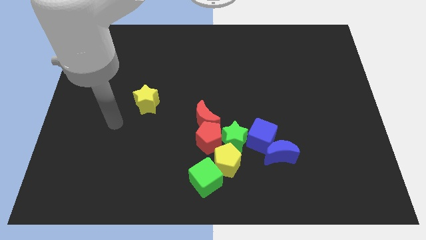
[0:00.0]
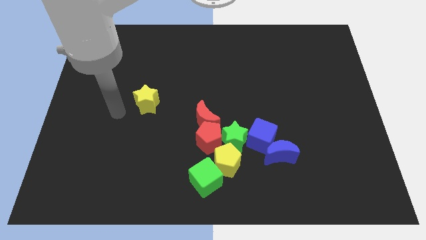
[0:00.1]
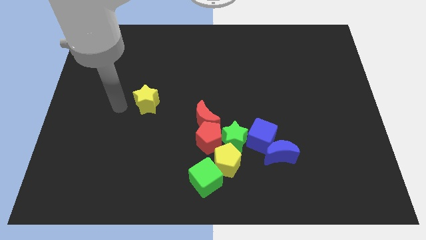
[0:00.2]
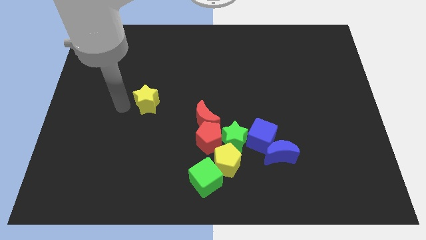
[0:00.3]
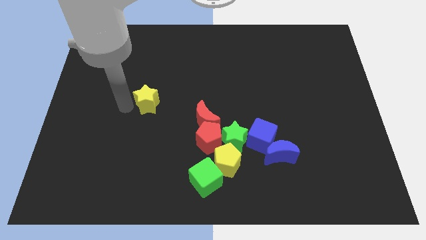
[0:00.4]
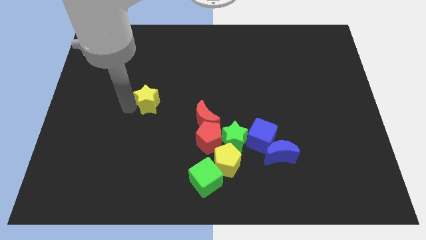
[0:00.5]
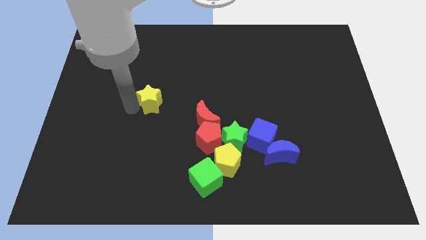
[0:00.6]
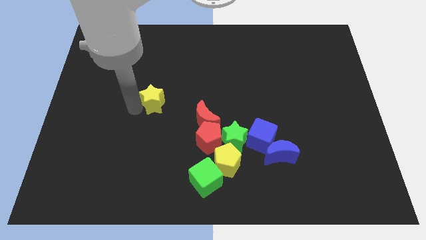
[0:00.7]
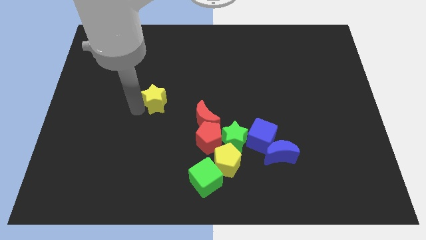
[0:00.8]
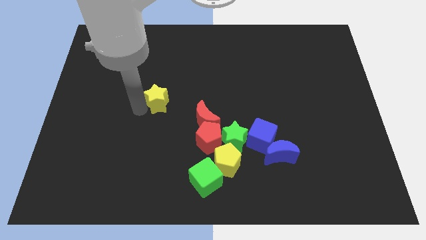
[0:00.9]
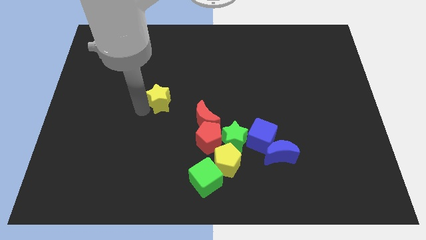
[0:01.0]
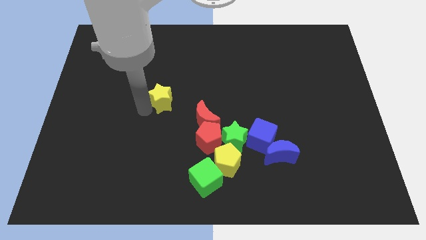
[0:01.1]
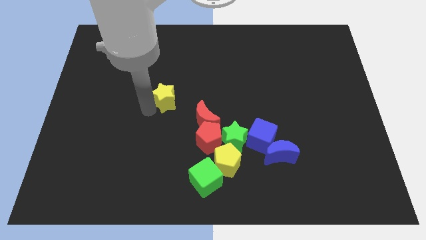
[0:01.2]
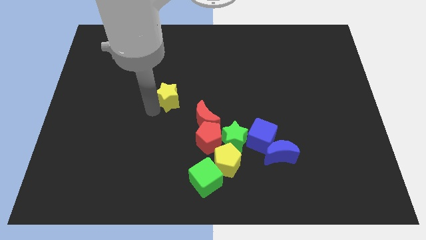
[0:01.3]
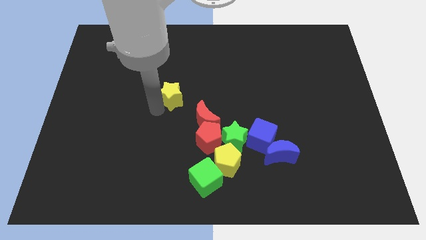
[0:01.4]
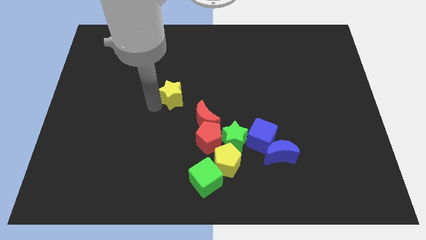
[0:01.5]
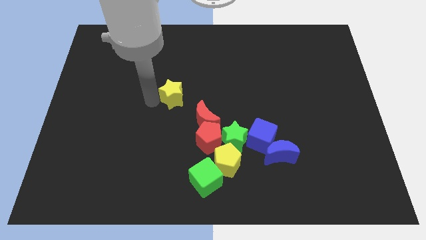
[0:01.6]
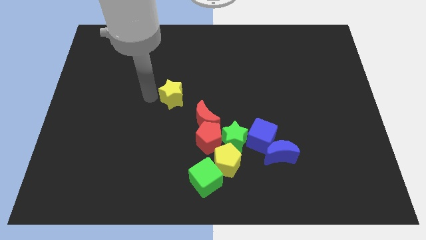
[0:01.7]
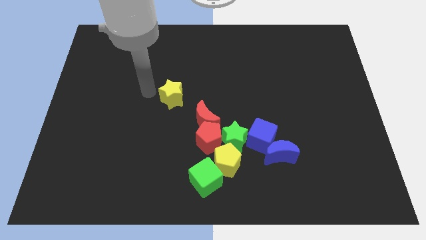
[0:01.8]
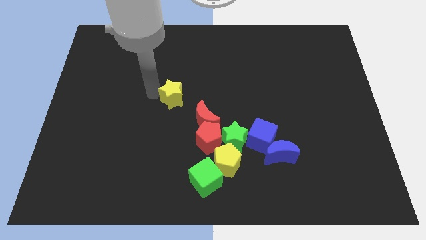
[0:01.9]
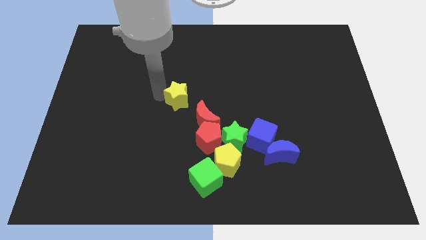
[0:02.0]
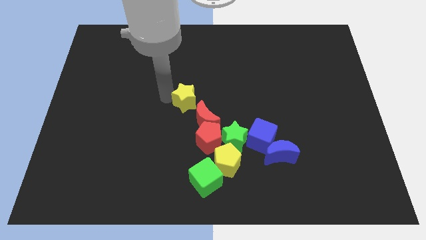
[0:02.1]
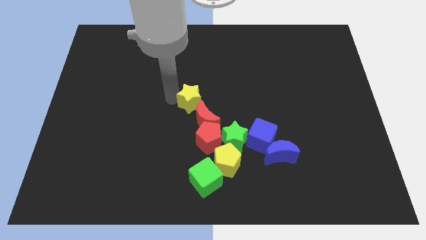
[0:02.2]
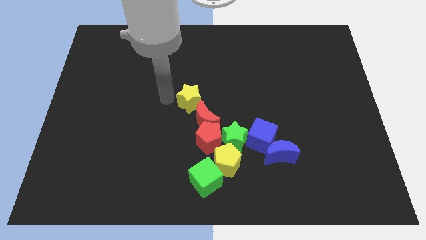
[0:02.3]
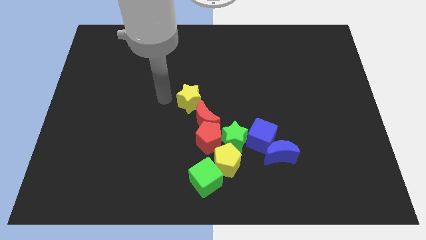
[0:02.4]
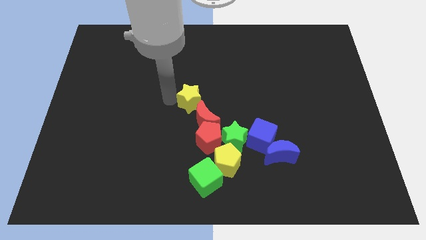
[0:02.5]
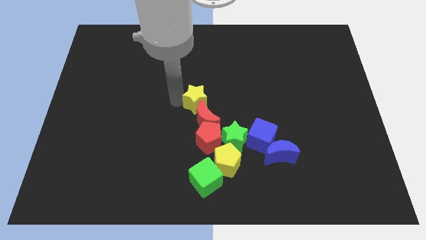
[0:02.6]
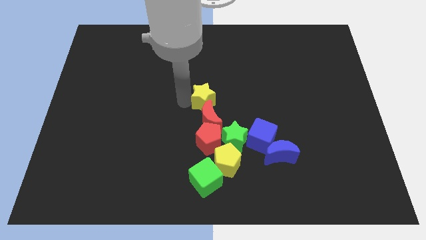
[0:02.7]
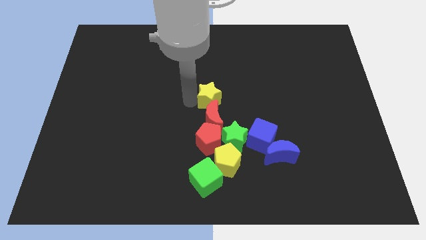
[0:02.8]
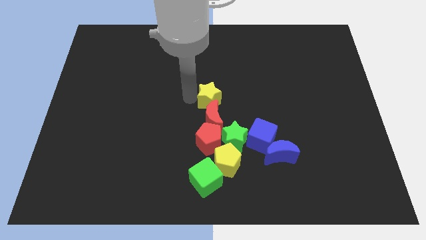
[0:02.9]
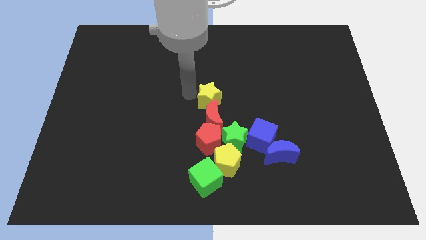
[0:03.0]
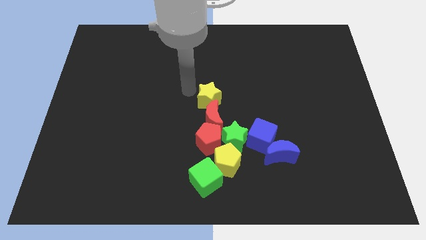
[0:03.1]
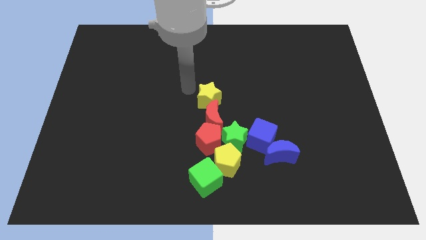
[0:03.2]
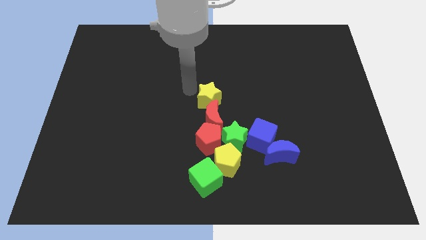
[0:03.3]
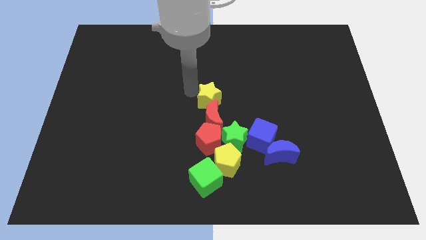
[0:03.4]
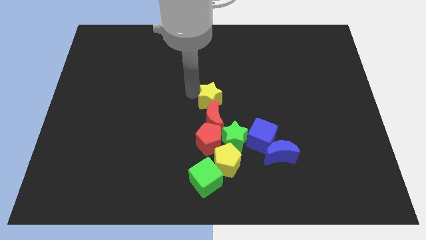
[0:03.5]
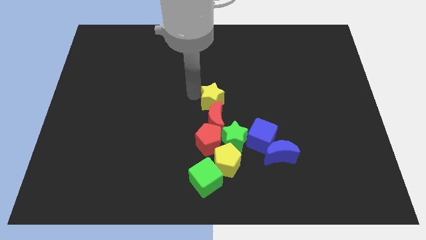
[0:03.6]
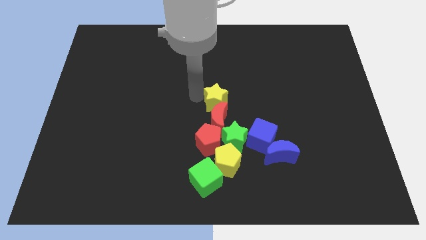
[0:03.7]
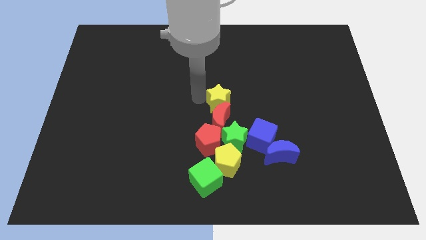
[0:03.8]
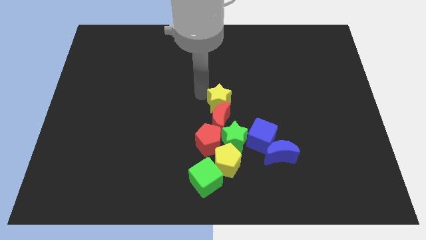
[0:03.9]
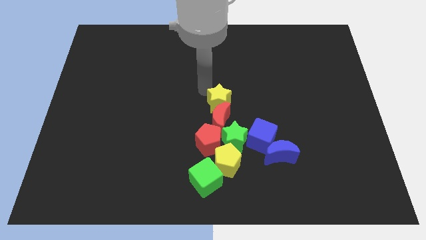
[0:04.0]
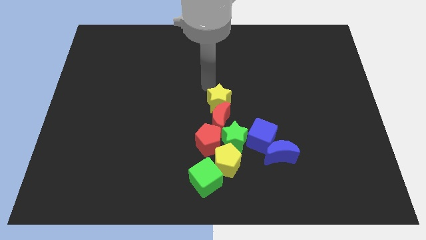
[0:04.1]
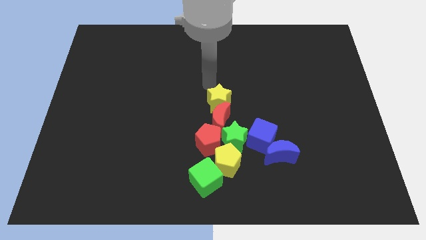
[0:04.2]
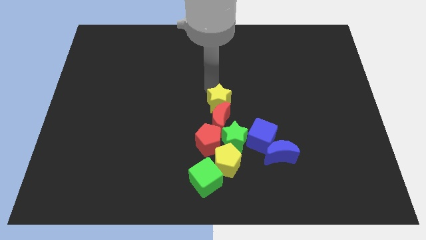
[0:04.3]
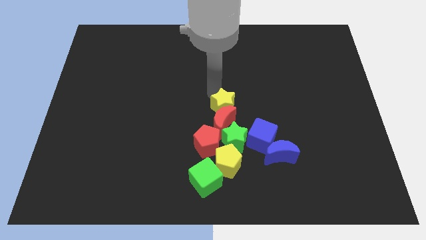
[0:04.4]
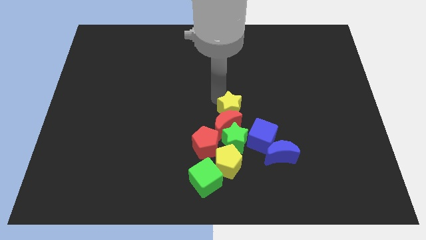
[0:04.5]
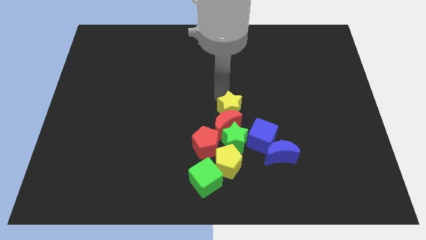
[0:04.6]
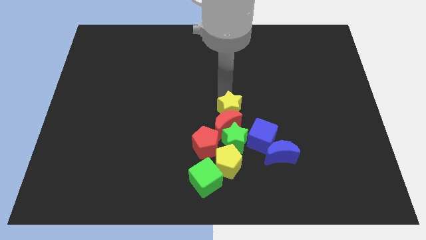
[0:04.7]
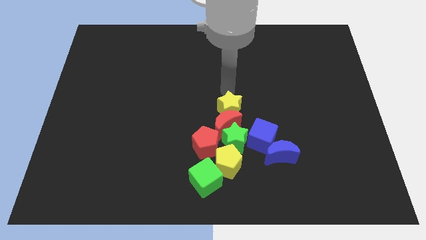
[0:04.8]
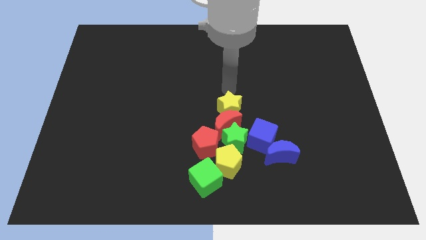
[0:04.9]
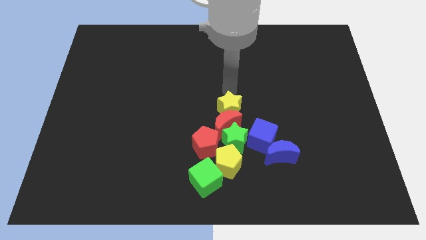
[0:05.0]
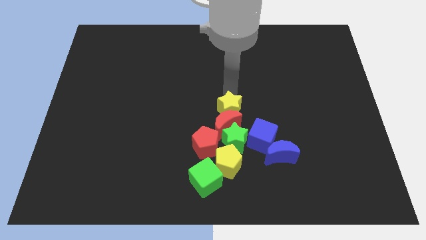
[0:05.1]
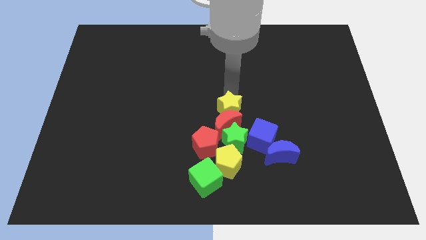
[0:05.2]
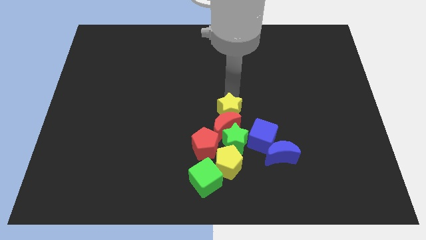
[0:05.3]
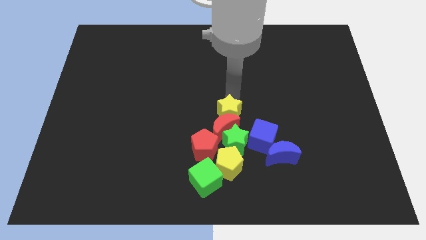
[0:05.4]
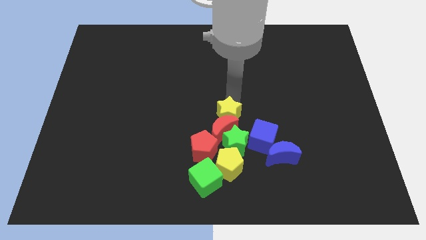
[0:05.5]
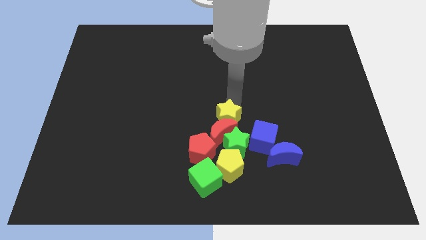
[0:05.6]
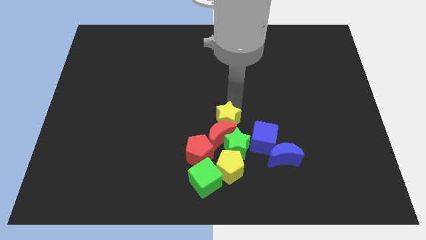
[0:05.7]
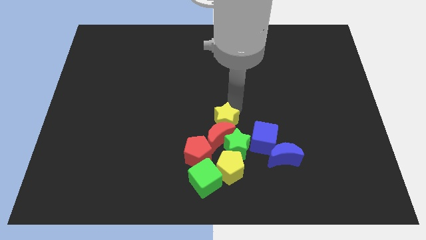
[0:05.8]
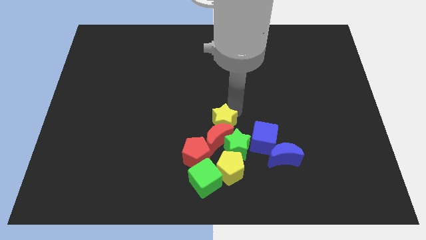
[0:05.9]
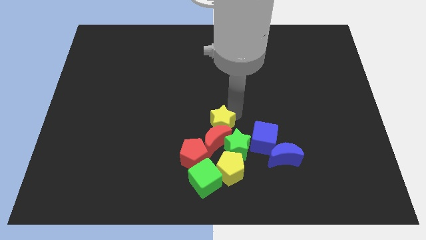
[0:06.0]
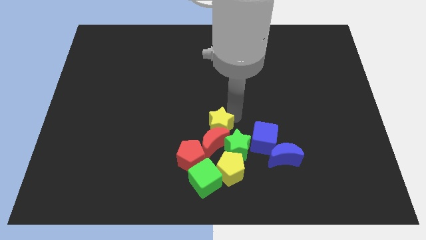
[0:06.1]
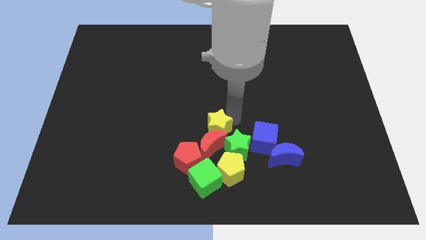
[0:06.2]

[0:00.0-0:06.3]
slide the yellow star close to the green star

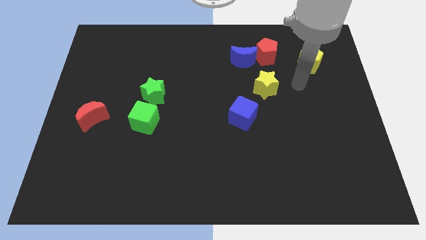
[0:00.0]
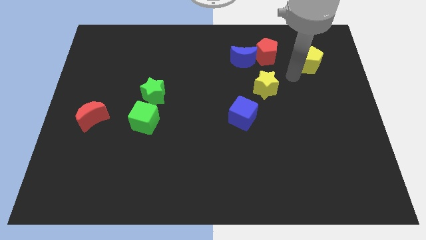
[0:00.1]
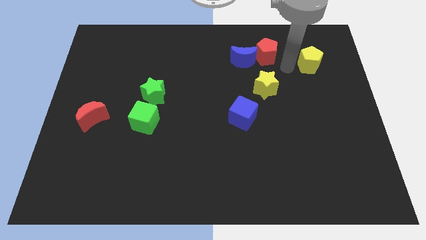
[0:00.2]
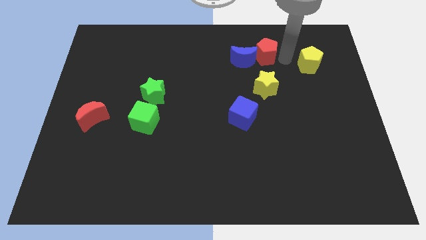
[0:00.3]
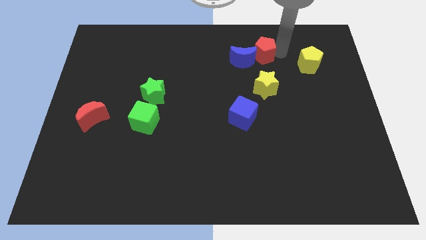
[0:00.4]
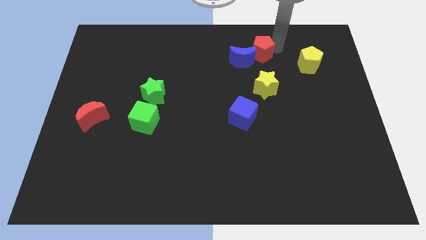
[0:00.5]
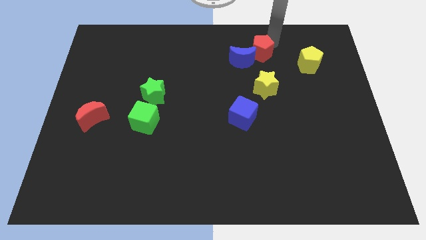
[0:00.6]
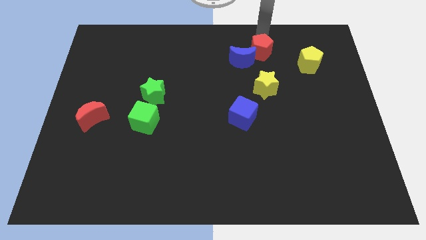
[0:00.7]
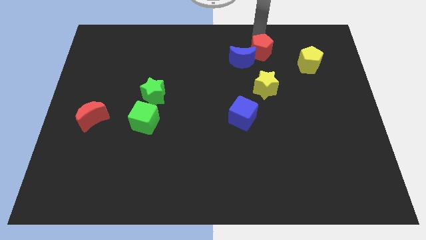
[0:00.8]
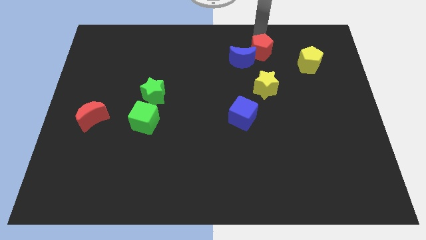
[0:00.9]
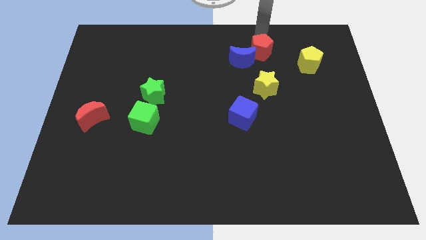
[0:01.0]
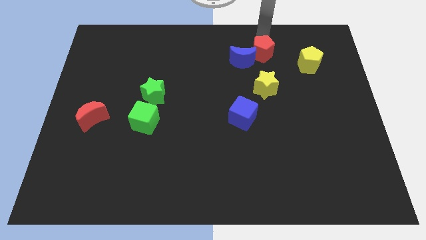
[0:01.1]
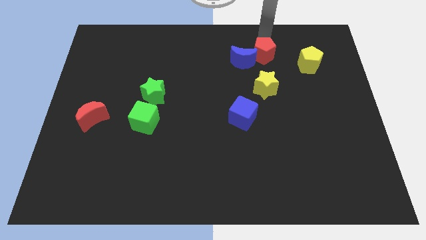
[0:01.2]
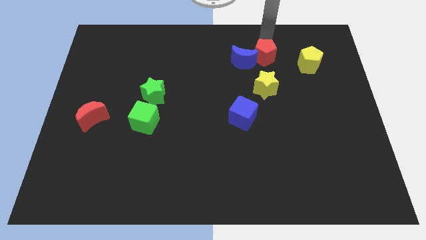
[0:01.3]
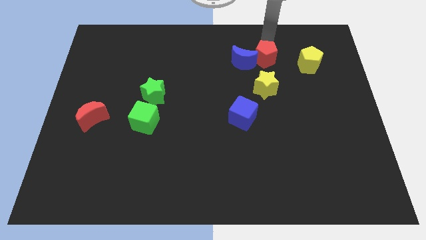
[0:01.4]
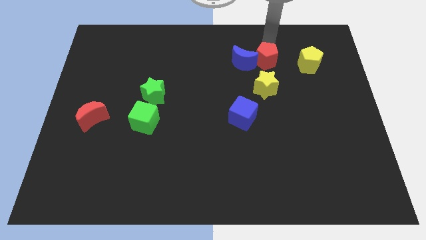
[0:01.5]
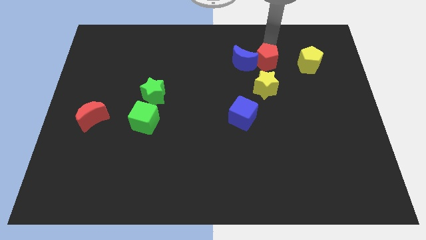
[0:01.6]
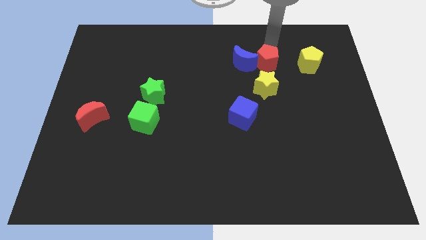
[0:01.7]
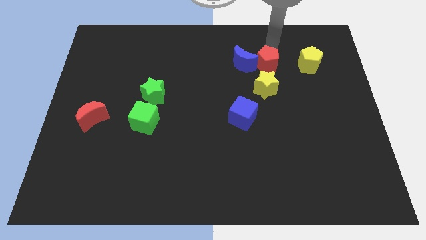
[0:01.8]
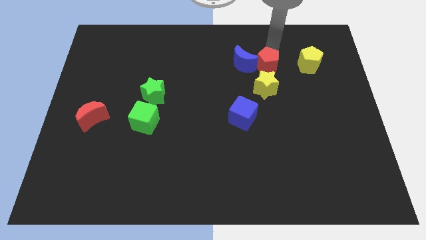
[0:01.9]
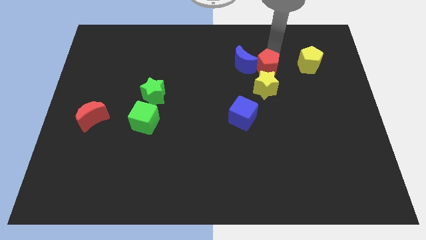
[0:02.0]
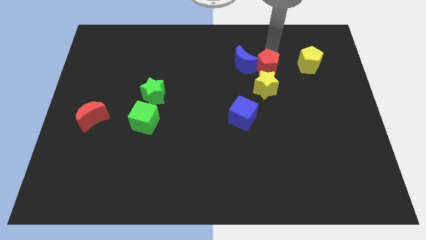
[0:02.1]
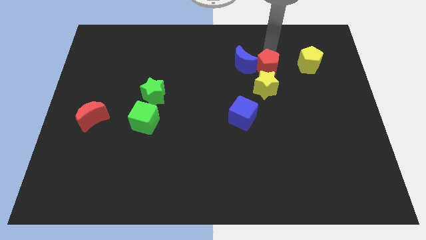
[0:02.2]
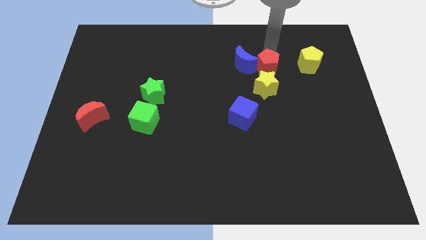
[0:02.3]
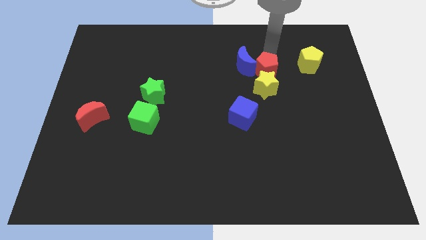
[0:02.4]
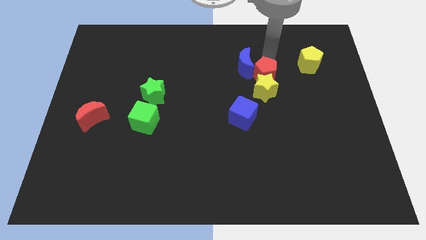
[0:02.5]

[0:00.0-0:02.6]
slide the red pentagon next to the yellow star
